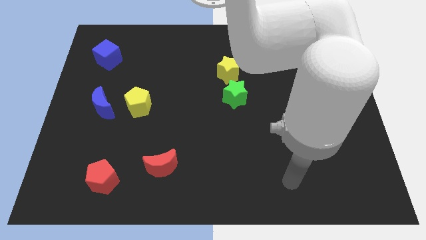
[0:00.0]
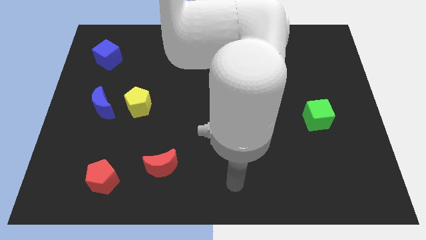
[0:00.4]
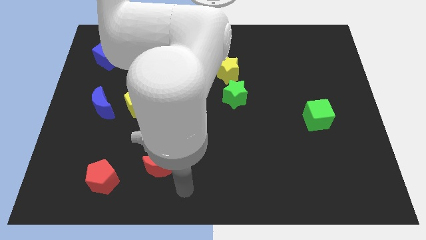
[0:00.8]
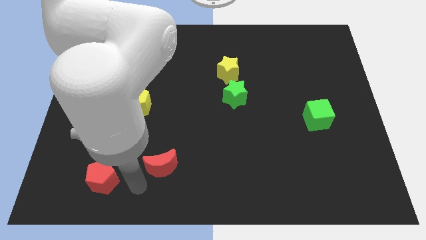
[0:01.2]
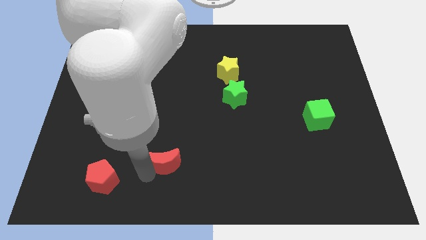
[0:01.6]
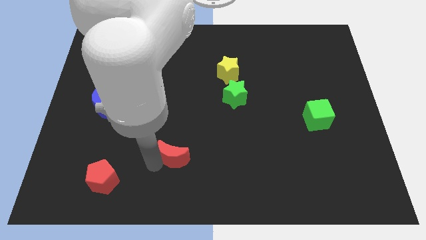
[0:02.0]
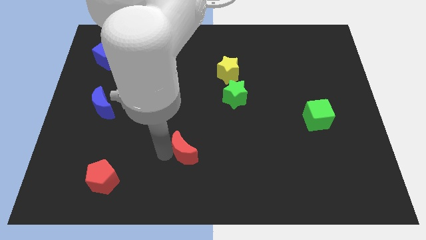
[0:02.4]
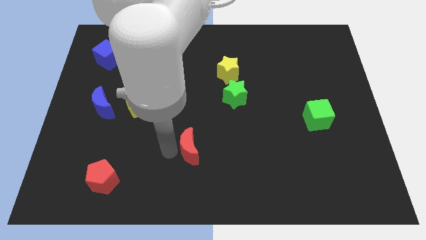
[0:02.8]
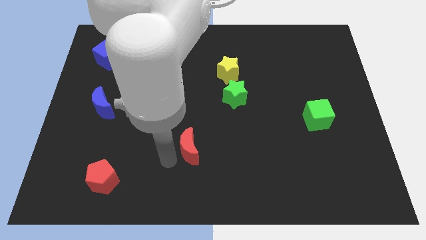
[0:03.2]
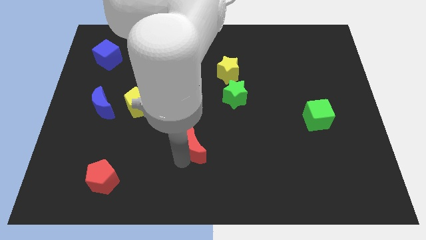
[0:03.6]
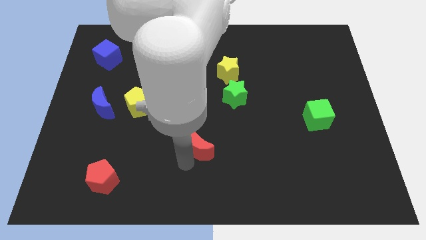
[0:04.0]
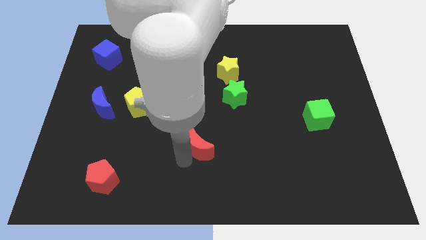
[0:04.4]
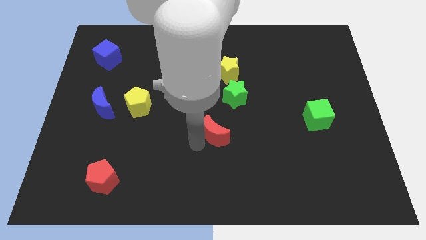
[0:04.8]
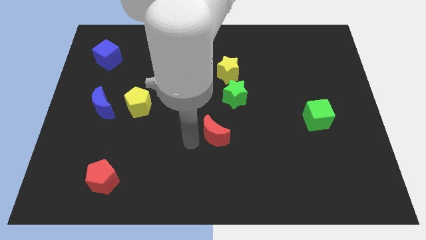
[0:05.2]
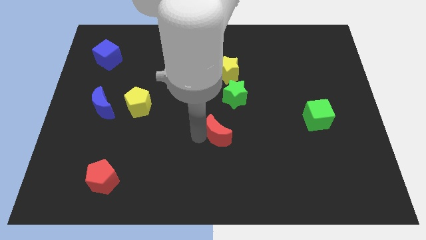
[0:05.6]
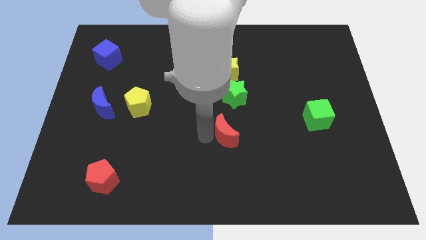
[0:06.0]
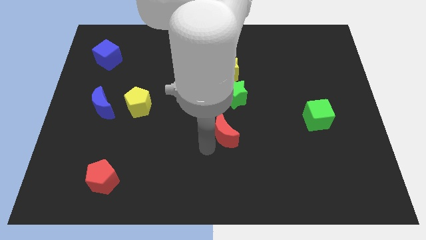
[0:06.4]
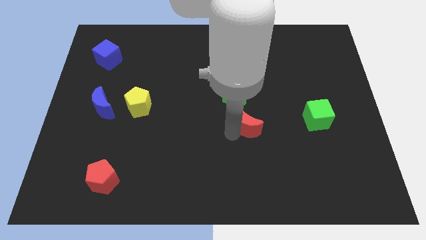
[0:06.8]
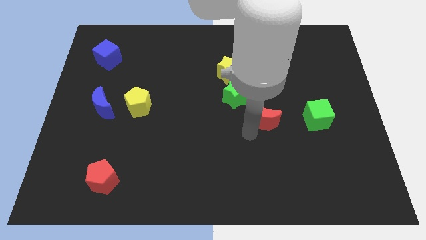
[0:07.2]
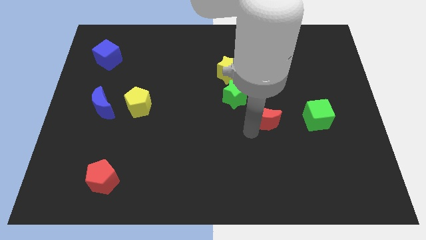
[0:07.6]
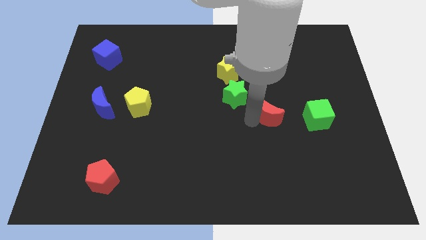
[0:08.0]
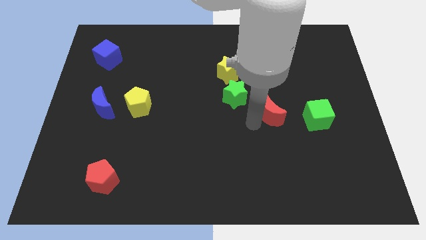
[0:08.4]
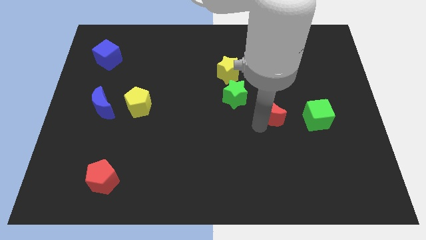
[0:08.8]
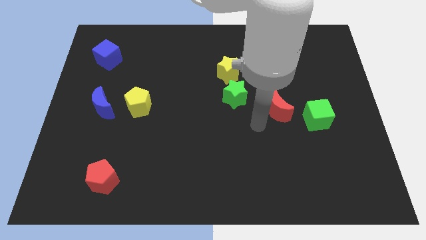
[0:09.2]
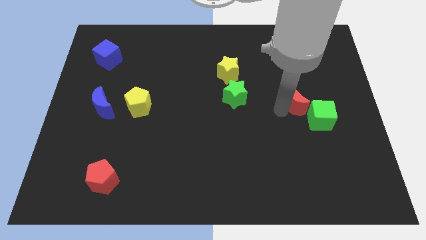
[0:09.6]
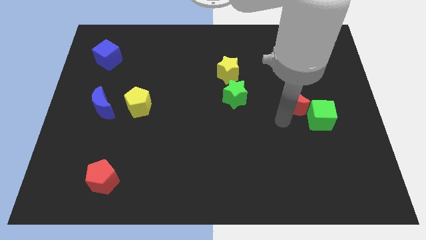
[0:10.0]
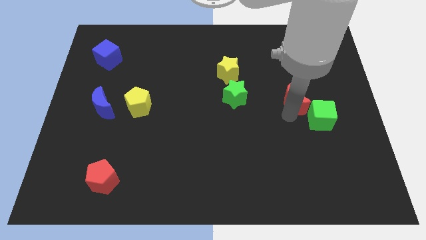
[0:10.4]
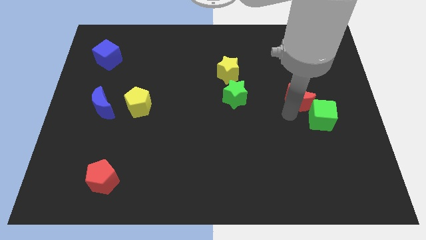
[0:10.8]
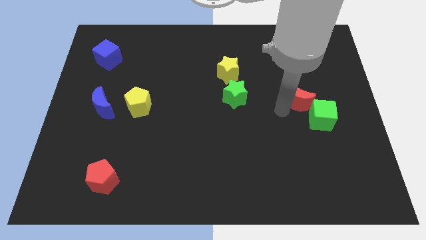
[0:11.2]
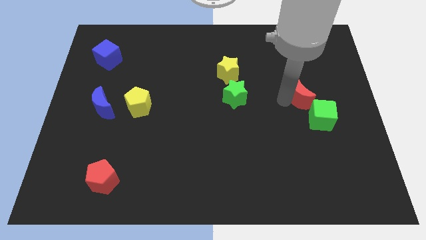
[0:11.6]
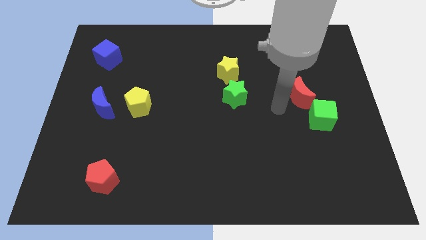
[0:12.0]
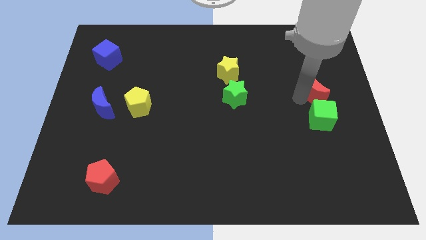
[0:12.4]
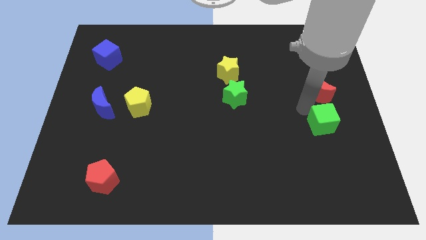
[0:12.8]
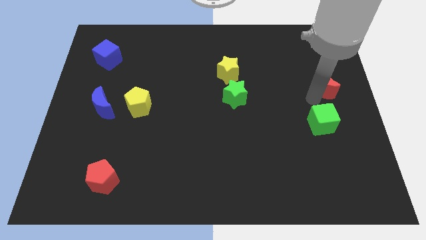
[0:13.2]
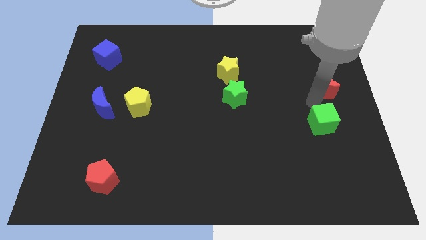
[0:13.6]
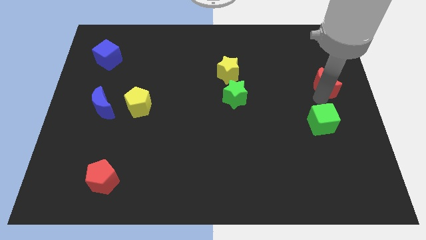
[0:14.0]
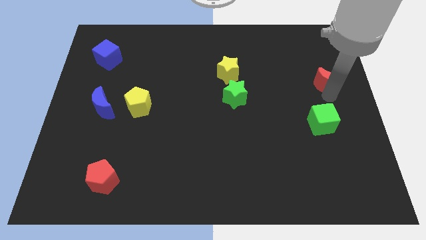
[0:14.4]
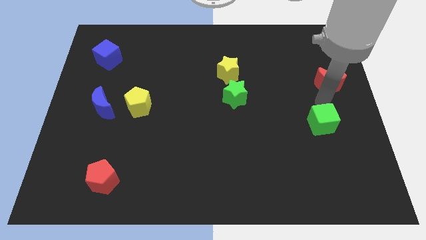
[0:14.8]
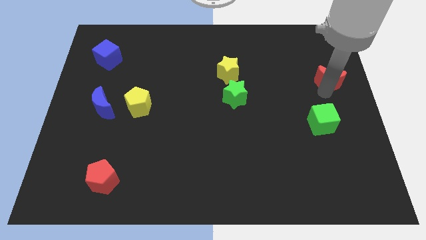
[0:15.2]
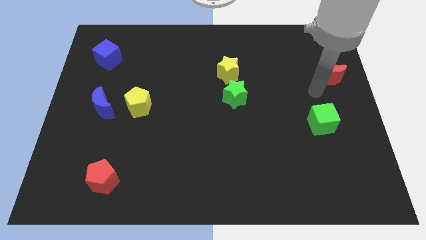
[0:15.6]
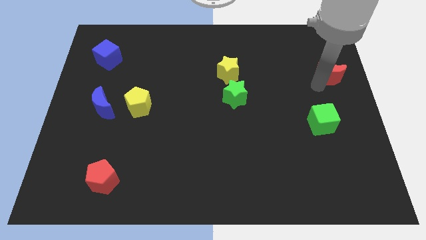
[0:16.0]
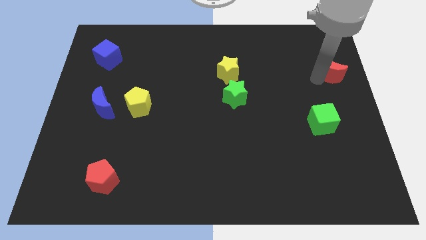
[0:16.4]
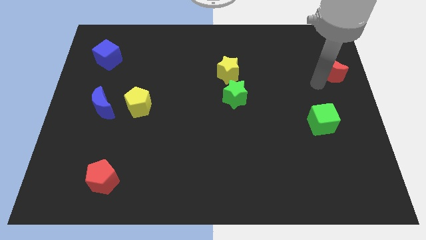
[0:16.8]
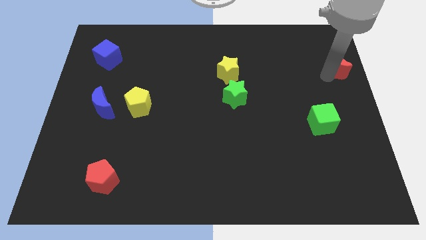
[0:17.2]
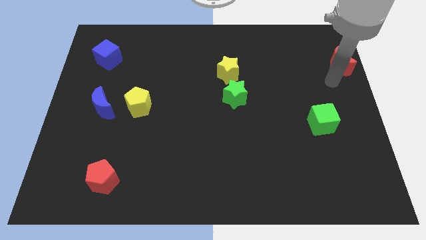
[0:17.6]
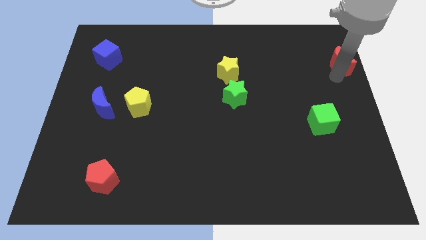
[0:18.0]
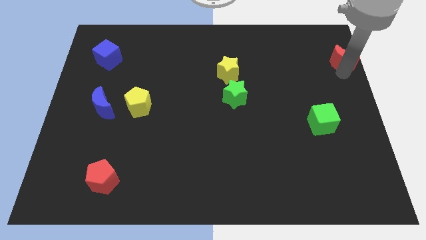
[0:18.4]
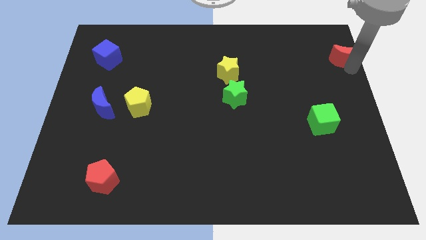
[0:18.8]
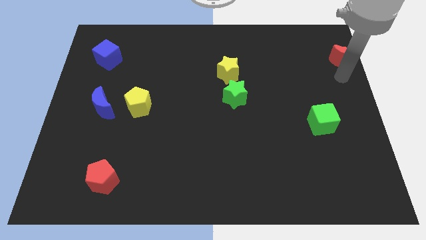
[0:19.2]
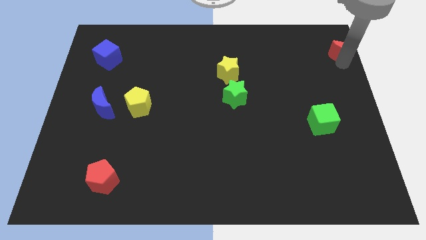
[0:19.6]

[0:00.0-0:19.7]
put the red moon to the top right

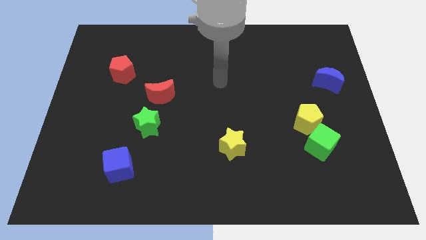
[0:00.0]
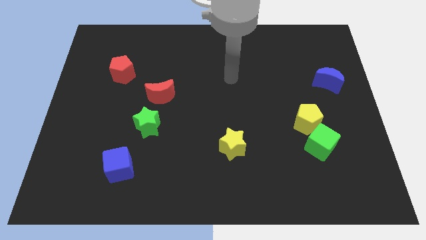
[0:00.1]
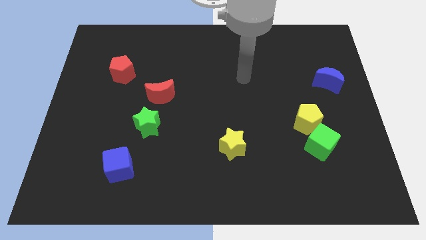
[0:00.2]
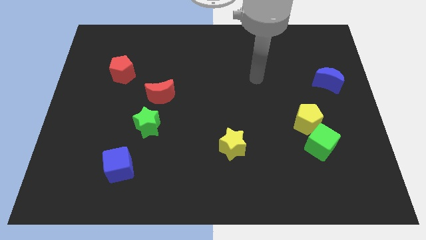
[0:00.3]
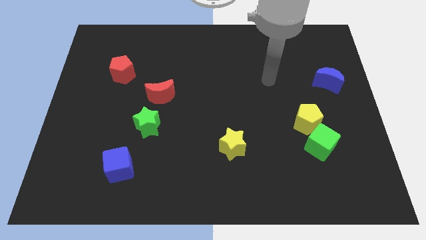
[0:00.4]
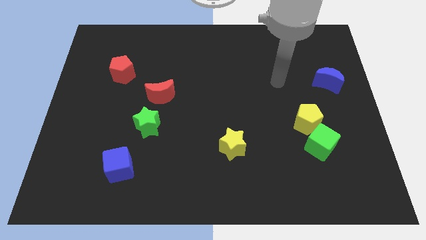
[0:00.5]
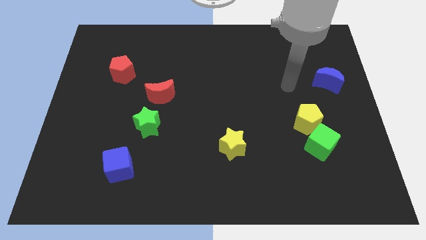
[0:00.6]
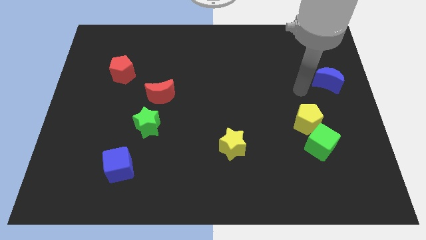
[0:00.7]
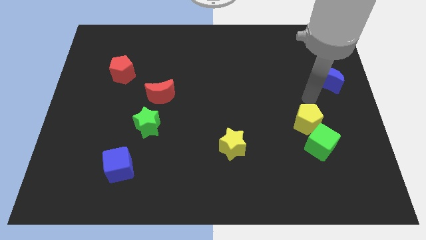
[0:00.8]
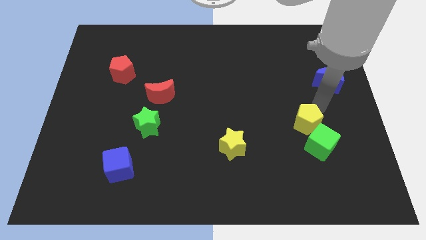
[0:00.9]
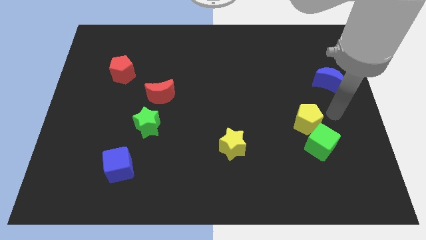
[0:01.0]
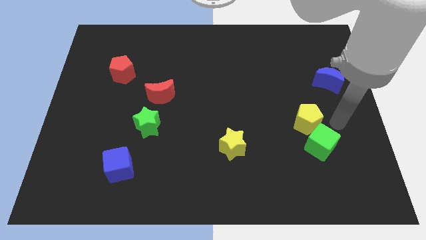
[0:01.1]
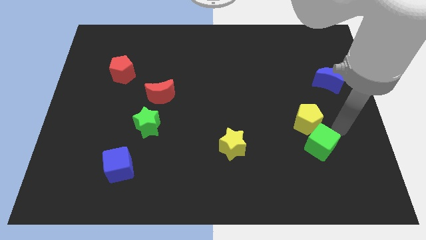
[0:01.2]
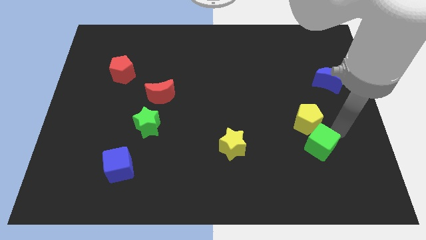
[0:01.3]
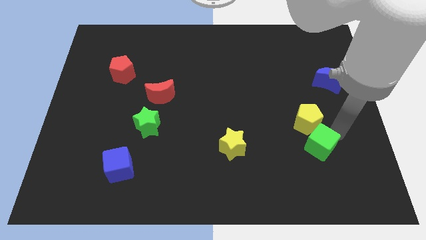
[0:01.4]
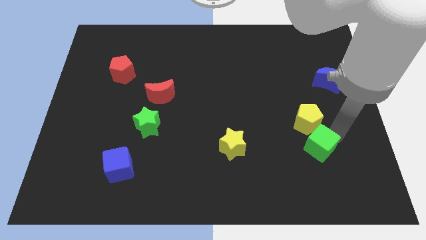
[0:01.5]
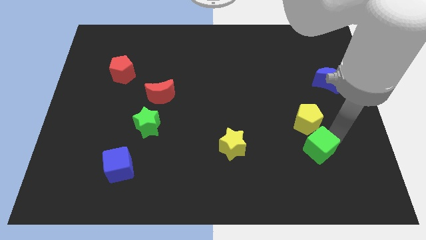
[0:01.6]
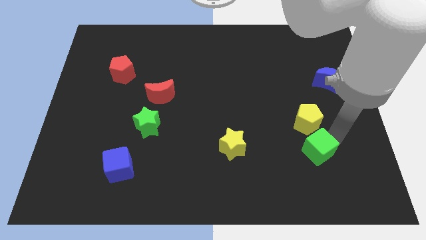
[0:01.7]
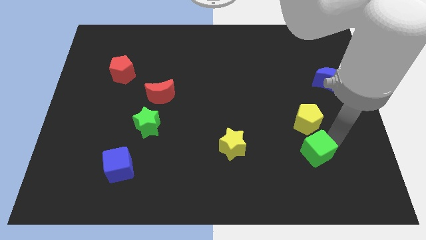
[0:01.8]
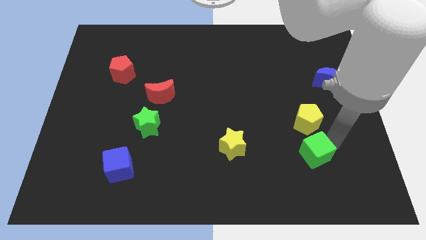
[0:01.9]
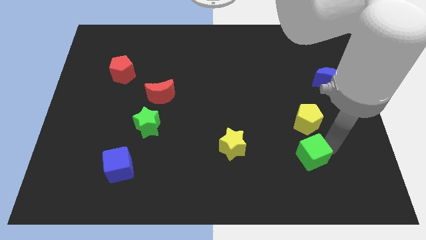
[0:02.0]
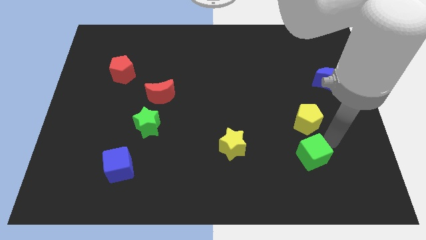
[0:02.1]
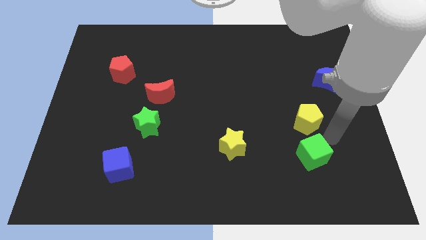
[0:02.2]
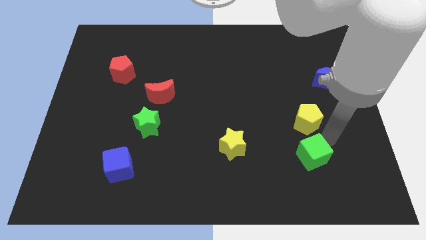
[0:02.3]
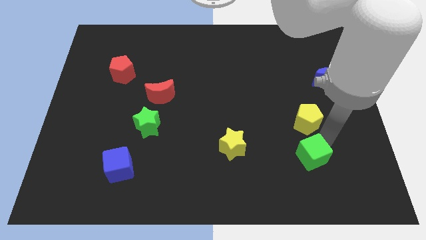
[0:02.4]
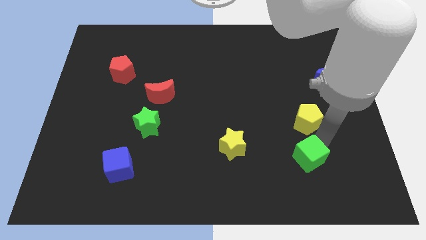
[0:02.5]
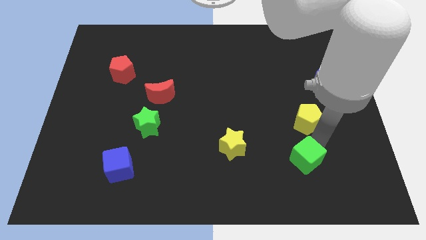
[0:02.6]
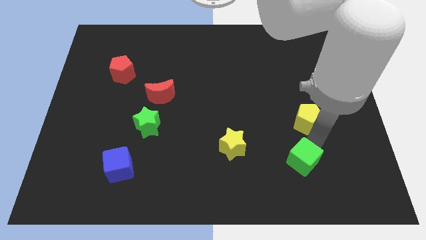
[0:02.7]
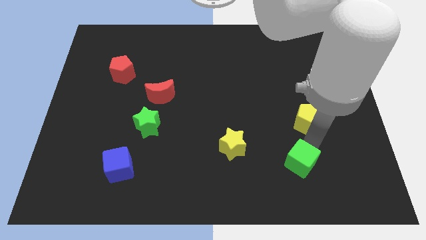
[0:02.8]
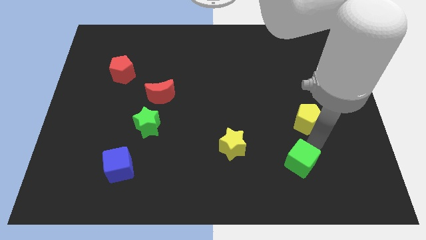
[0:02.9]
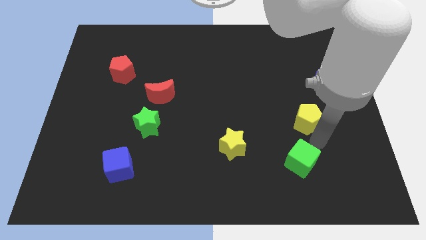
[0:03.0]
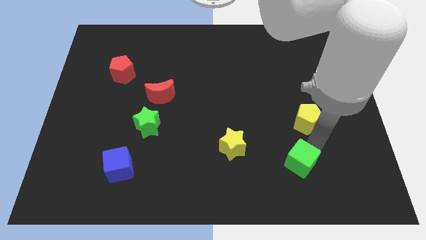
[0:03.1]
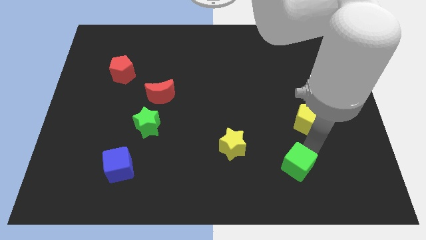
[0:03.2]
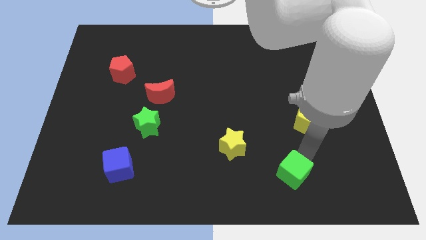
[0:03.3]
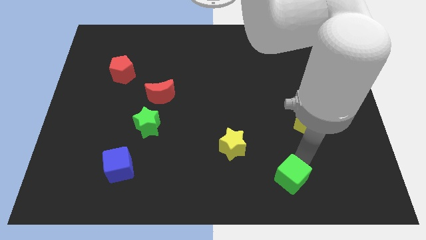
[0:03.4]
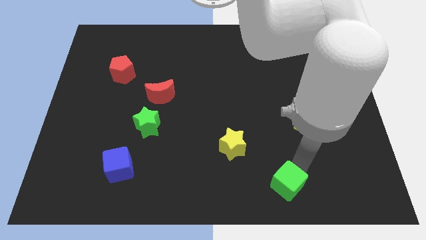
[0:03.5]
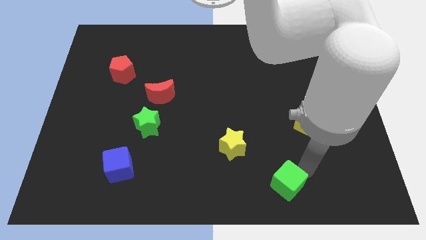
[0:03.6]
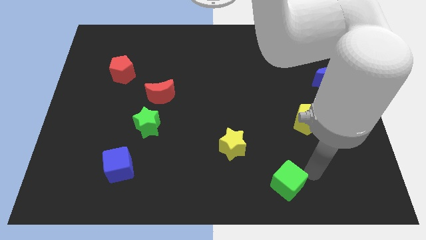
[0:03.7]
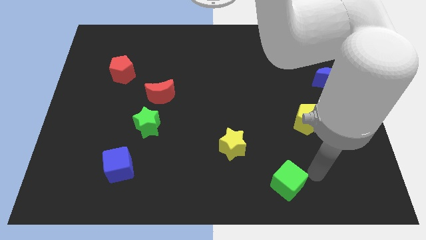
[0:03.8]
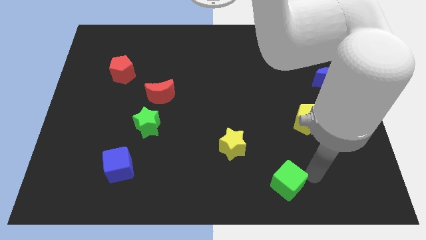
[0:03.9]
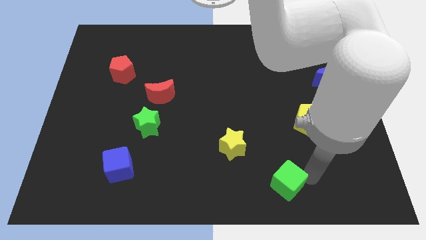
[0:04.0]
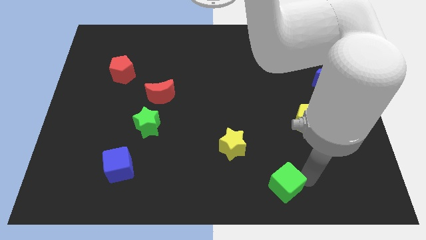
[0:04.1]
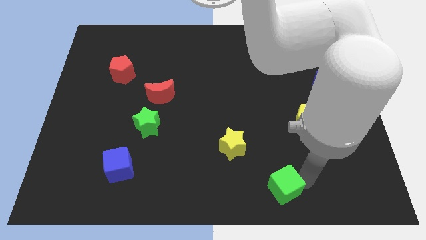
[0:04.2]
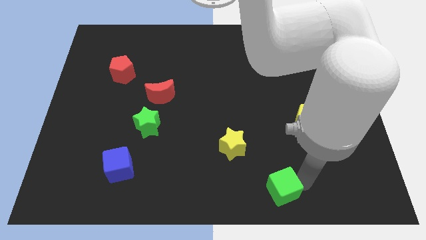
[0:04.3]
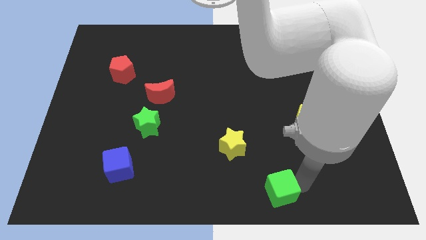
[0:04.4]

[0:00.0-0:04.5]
put the green cube to the bottom
